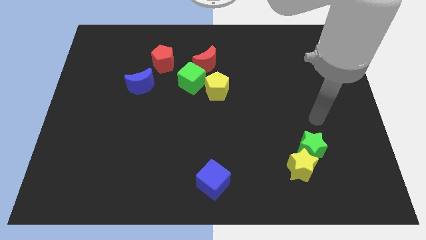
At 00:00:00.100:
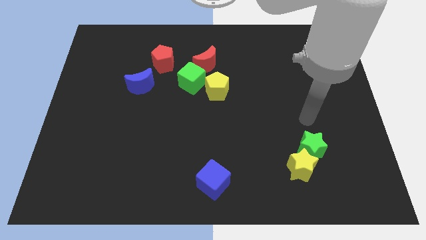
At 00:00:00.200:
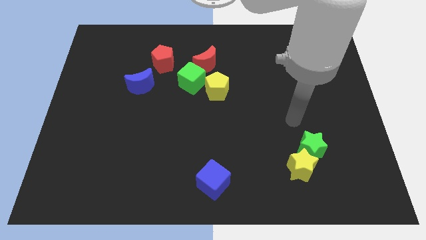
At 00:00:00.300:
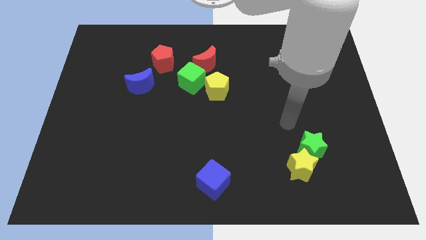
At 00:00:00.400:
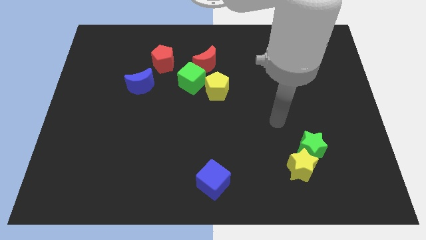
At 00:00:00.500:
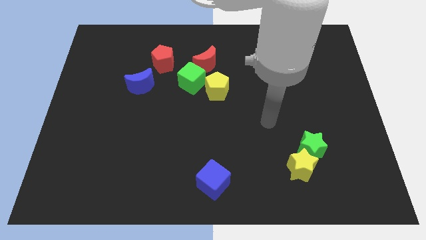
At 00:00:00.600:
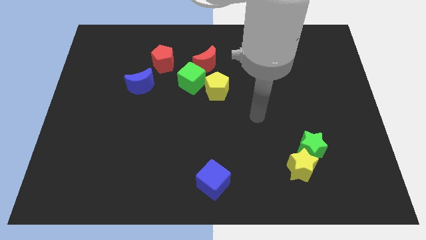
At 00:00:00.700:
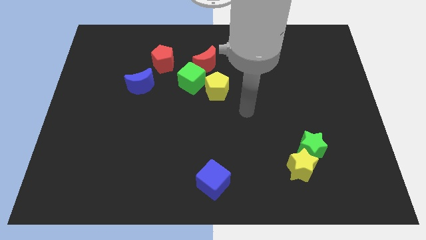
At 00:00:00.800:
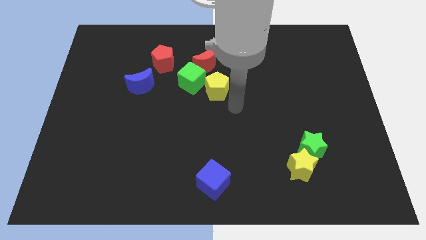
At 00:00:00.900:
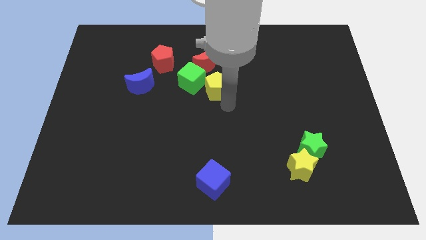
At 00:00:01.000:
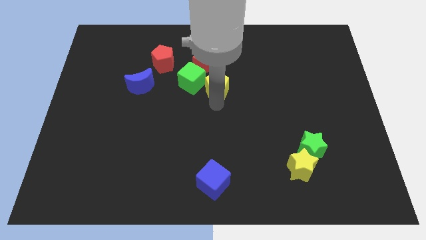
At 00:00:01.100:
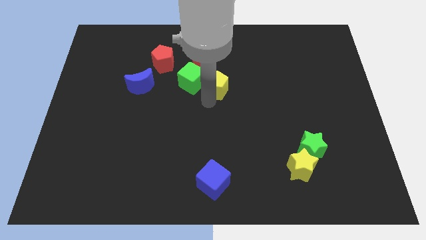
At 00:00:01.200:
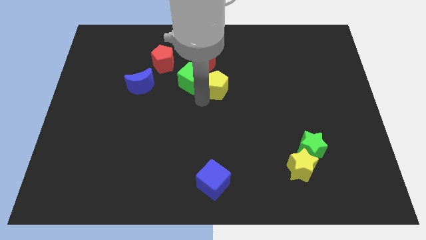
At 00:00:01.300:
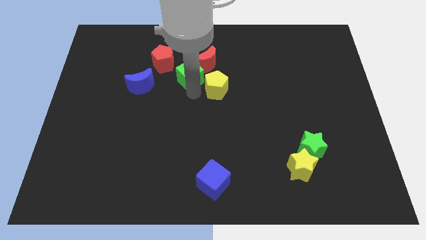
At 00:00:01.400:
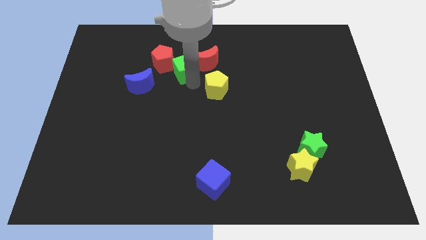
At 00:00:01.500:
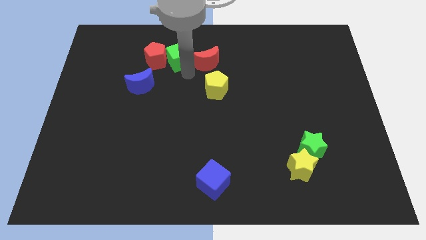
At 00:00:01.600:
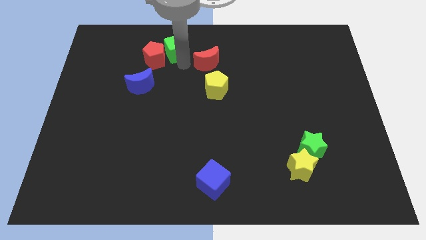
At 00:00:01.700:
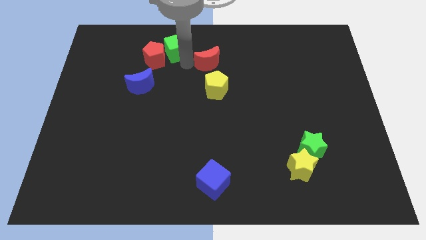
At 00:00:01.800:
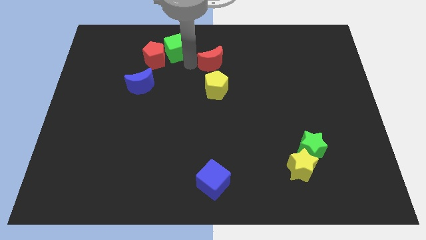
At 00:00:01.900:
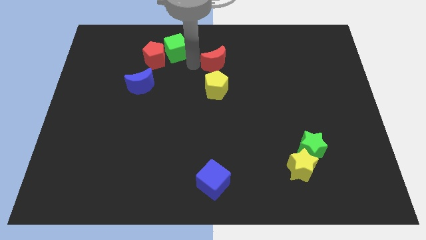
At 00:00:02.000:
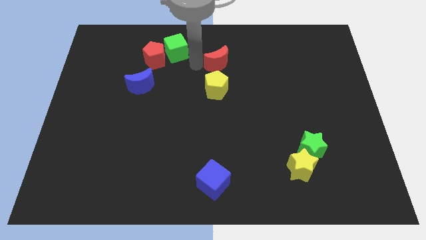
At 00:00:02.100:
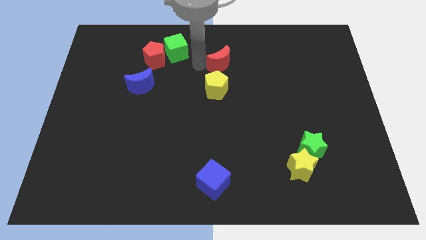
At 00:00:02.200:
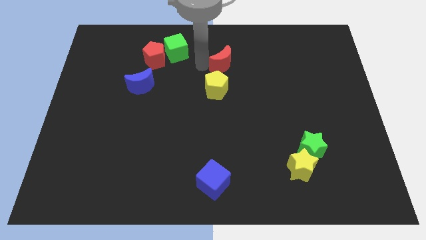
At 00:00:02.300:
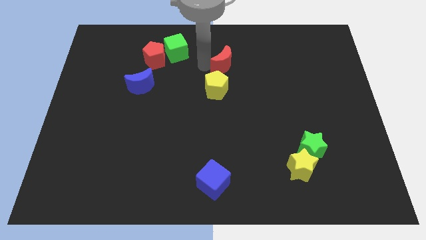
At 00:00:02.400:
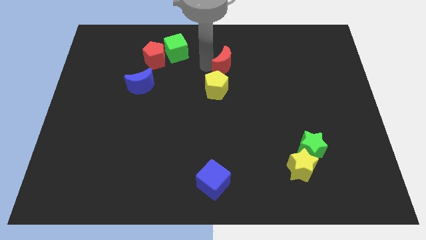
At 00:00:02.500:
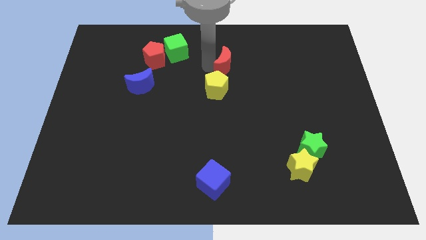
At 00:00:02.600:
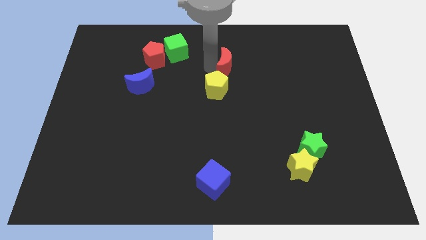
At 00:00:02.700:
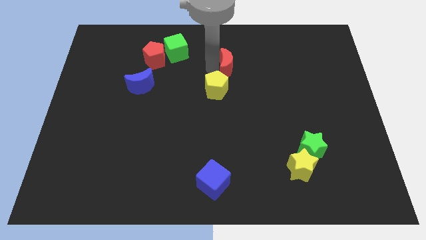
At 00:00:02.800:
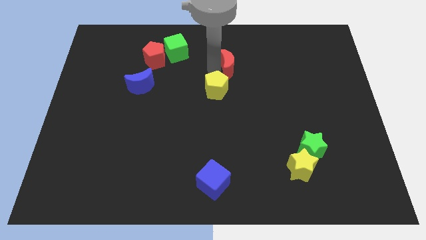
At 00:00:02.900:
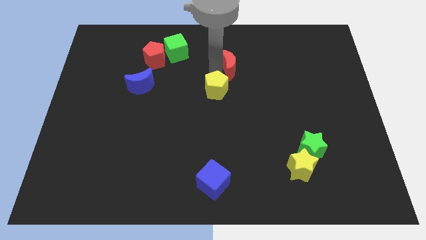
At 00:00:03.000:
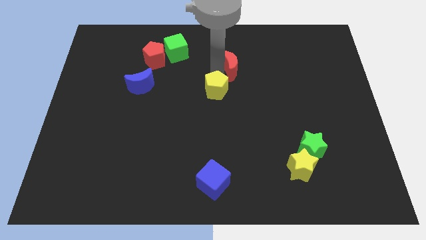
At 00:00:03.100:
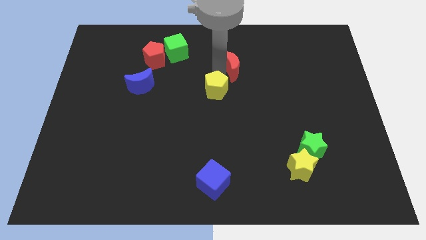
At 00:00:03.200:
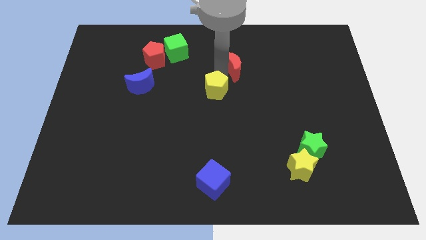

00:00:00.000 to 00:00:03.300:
slide the red moon to the right a little

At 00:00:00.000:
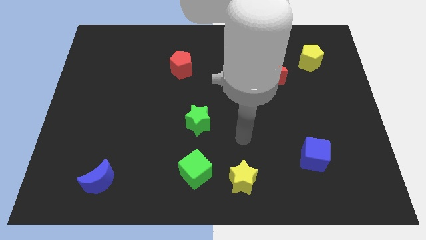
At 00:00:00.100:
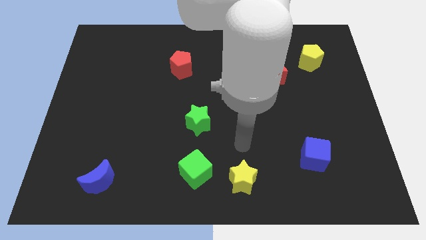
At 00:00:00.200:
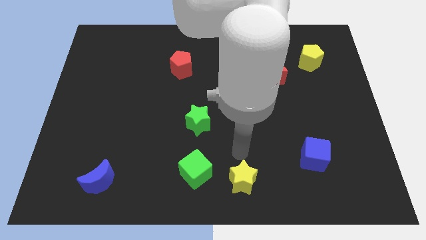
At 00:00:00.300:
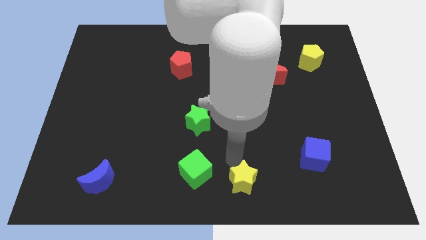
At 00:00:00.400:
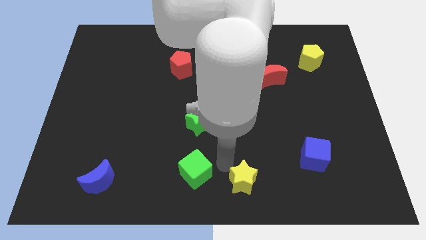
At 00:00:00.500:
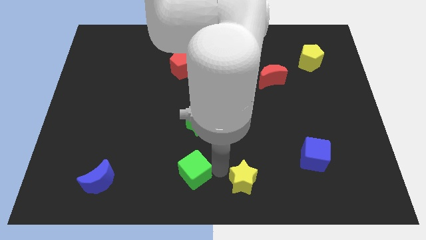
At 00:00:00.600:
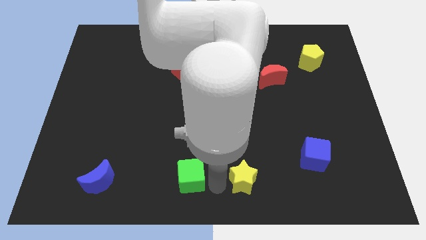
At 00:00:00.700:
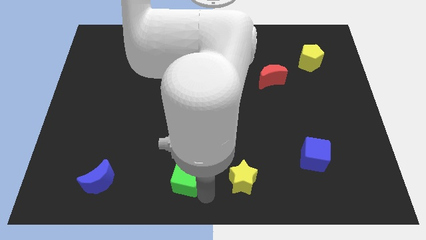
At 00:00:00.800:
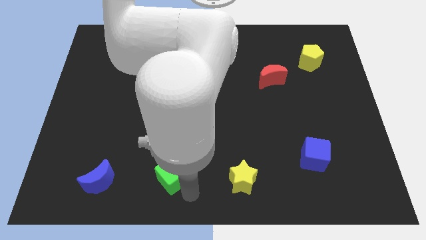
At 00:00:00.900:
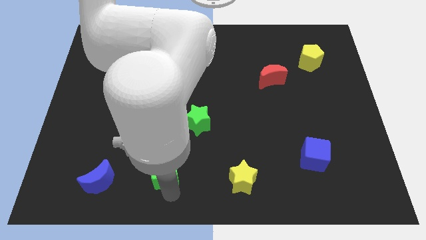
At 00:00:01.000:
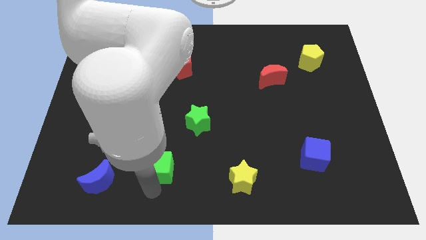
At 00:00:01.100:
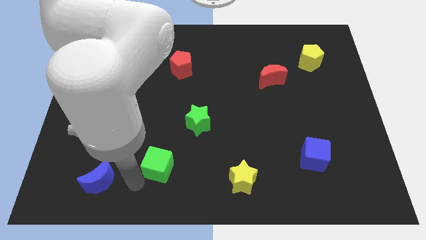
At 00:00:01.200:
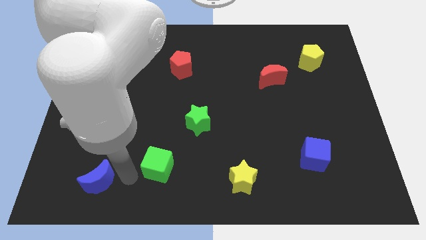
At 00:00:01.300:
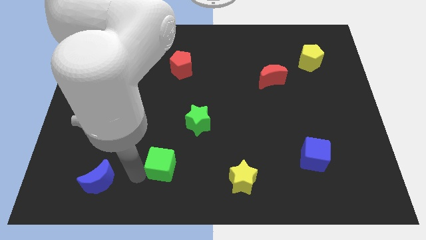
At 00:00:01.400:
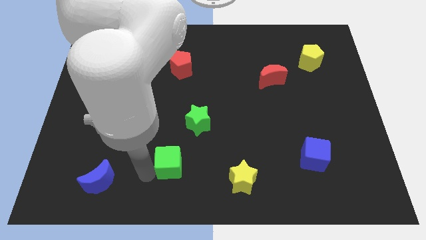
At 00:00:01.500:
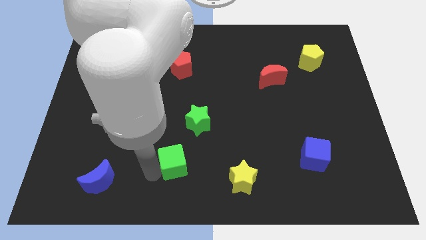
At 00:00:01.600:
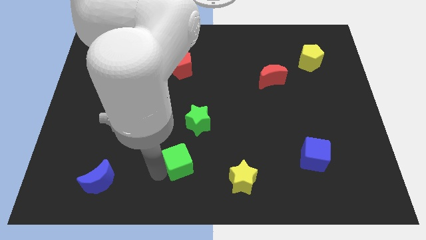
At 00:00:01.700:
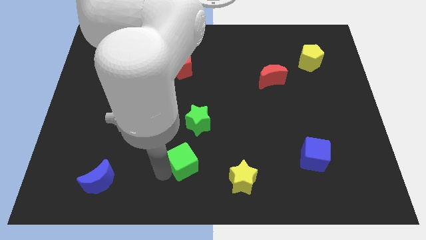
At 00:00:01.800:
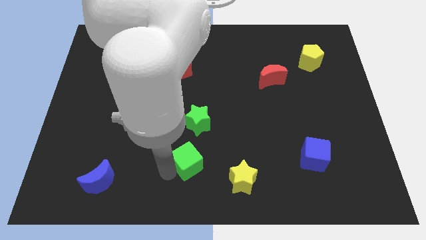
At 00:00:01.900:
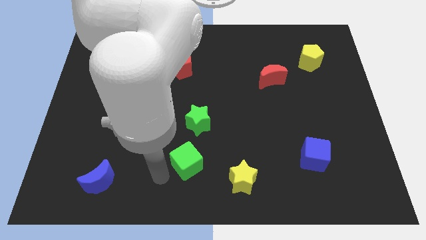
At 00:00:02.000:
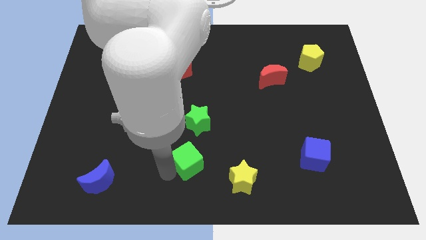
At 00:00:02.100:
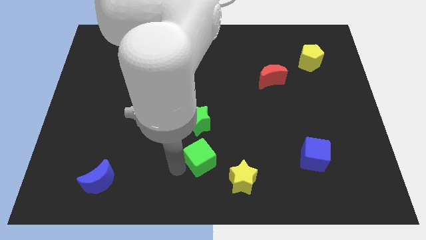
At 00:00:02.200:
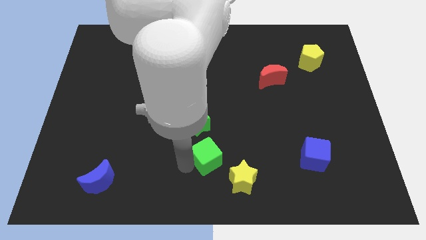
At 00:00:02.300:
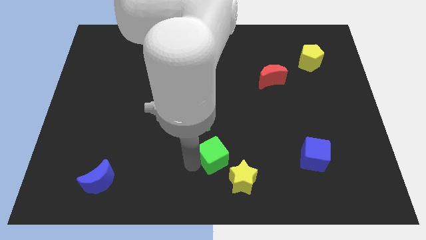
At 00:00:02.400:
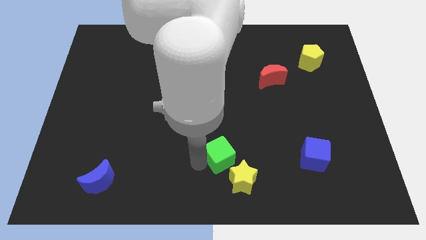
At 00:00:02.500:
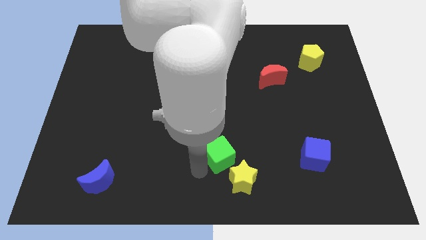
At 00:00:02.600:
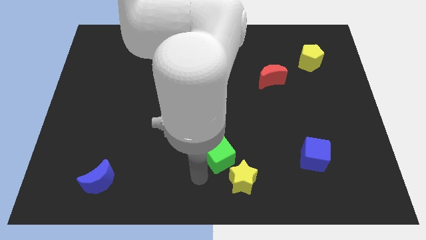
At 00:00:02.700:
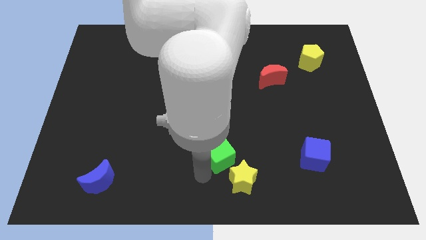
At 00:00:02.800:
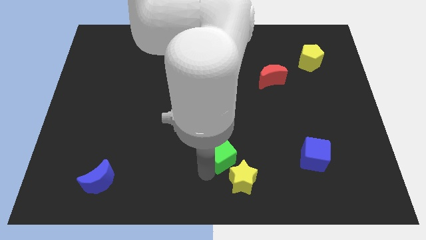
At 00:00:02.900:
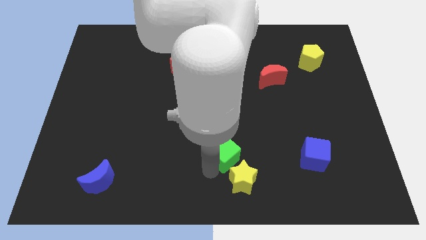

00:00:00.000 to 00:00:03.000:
slide the green cube upwards and to the right diagonally a little

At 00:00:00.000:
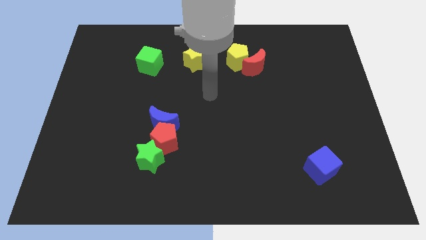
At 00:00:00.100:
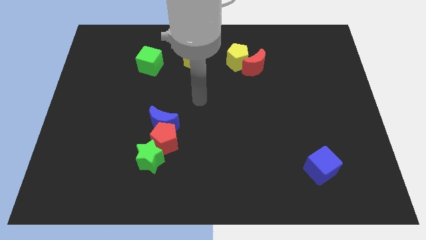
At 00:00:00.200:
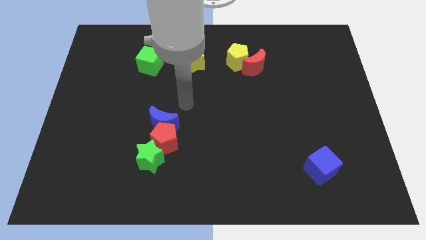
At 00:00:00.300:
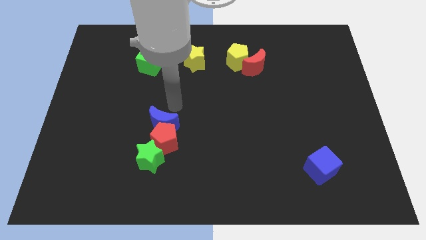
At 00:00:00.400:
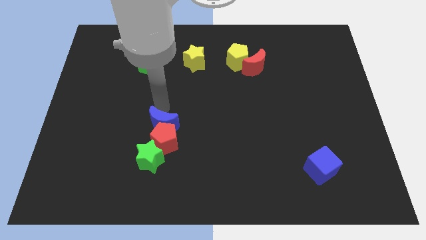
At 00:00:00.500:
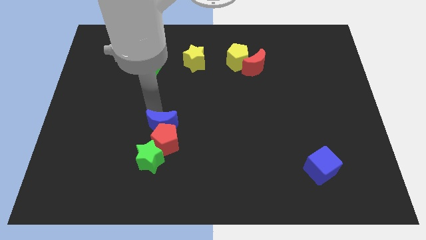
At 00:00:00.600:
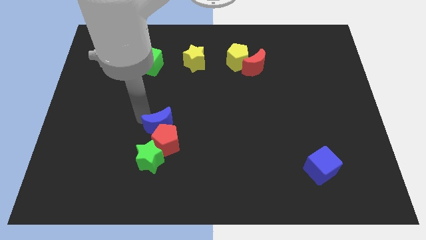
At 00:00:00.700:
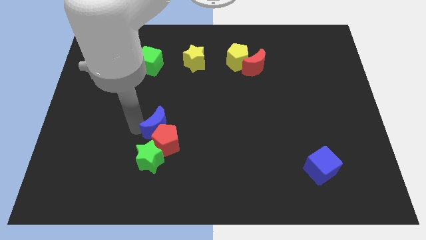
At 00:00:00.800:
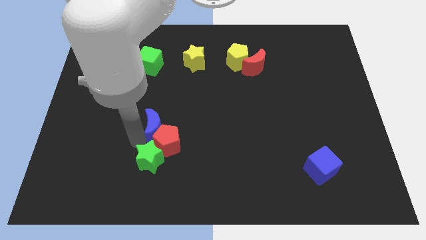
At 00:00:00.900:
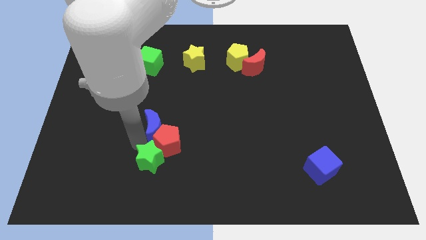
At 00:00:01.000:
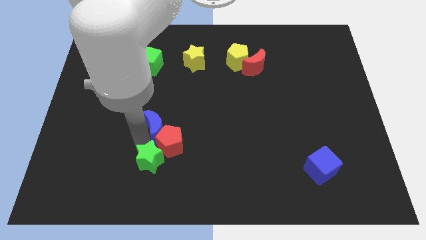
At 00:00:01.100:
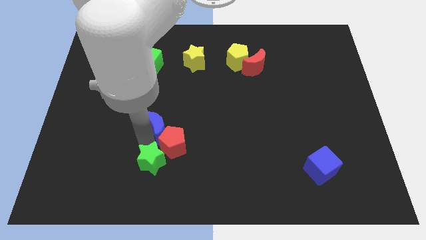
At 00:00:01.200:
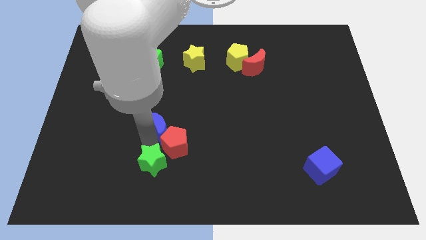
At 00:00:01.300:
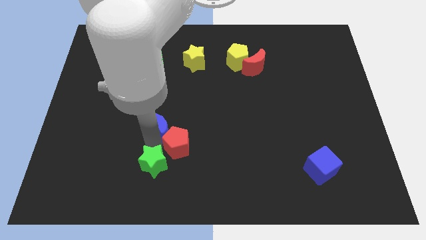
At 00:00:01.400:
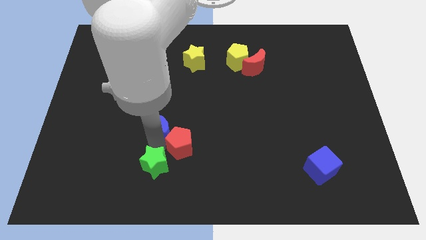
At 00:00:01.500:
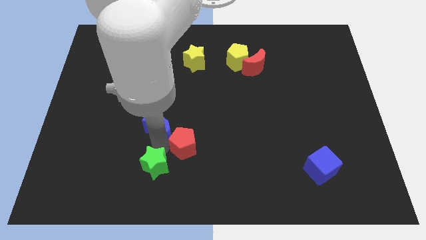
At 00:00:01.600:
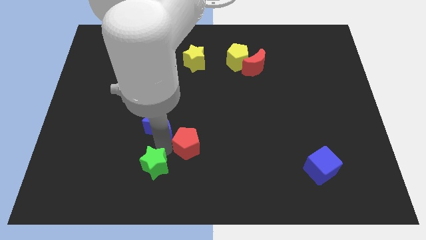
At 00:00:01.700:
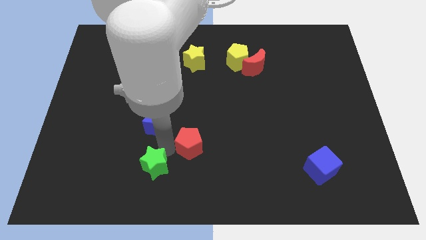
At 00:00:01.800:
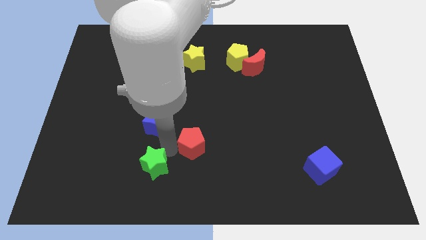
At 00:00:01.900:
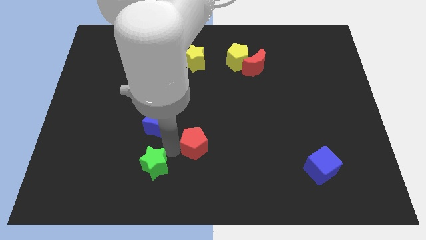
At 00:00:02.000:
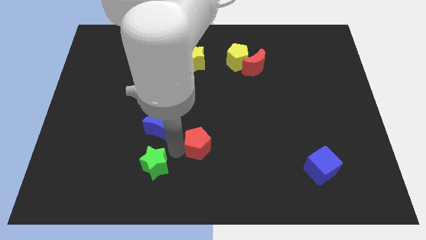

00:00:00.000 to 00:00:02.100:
move the red pentagon to the right somewhat
